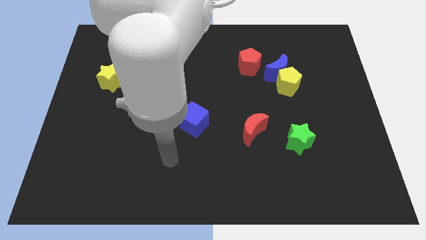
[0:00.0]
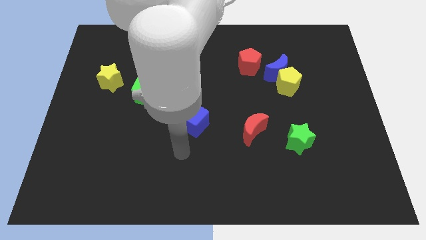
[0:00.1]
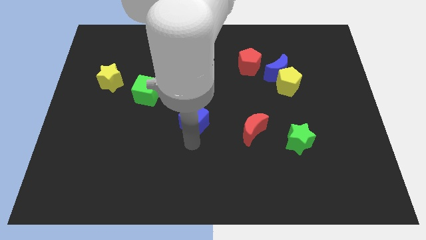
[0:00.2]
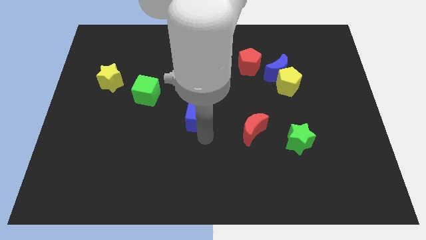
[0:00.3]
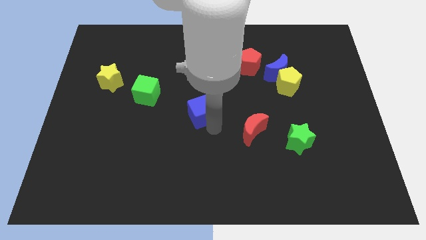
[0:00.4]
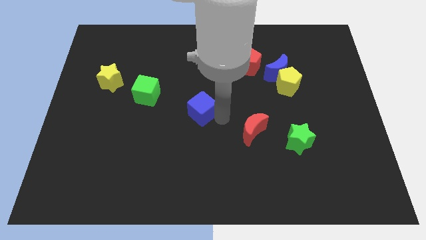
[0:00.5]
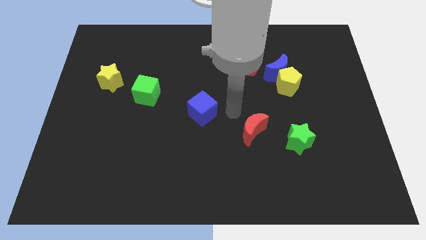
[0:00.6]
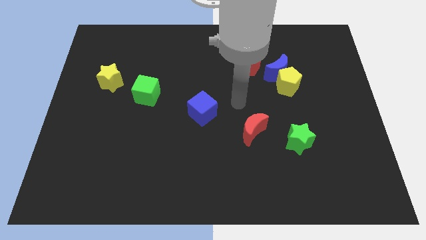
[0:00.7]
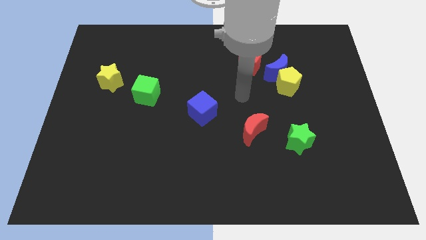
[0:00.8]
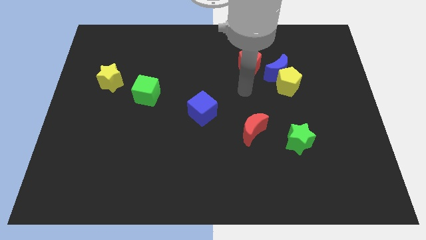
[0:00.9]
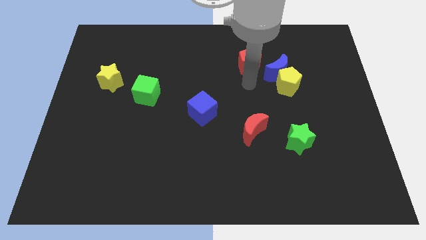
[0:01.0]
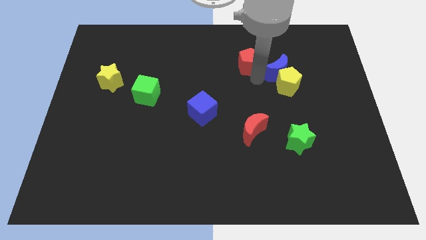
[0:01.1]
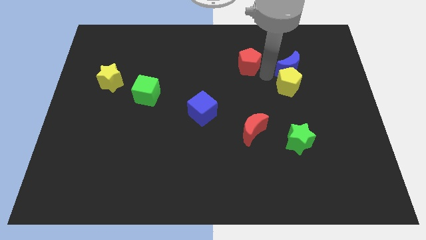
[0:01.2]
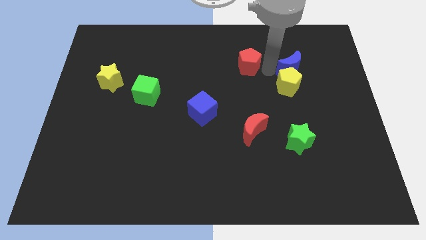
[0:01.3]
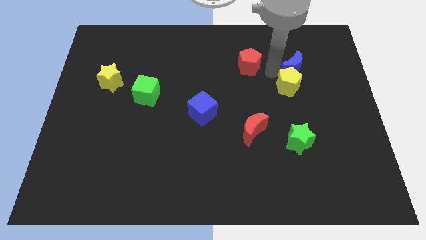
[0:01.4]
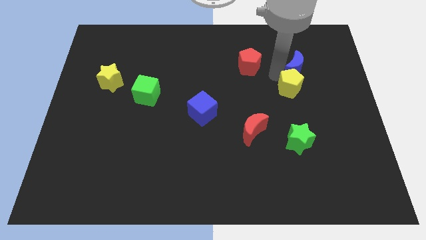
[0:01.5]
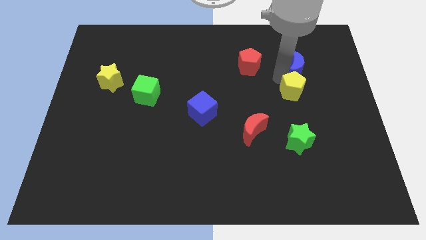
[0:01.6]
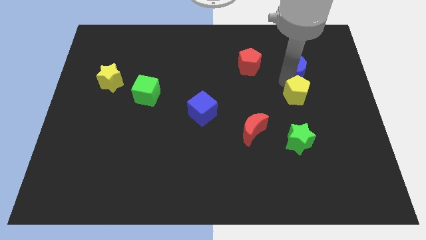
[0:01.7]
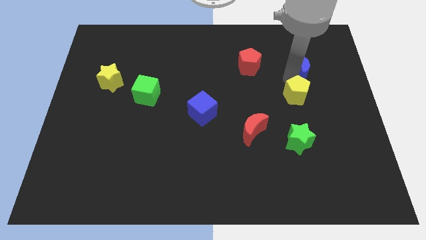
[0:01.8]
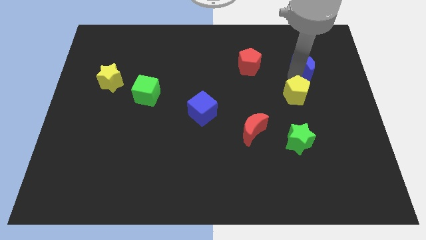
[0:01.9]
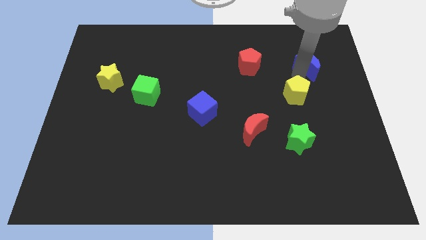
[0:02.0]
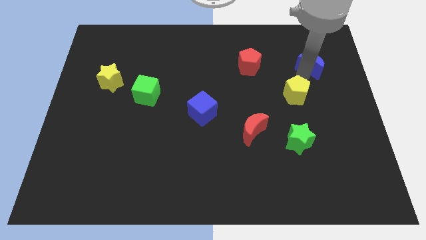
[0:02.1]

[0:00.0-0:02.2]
separate the yellow pentagon from the blue moon

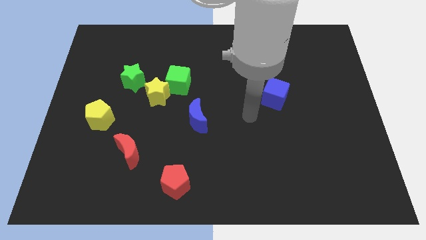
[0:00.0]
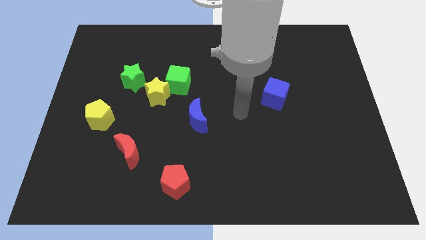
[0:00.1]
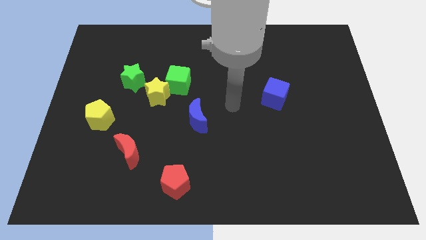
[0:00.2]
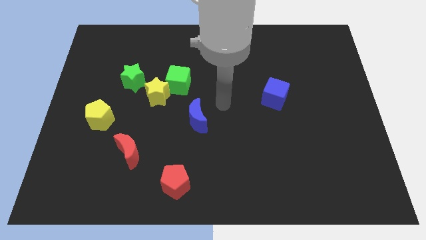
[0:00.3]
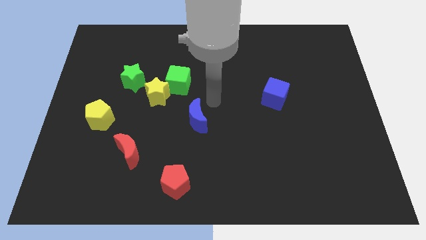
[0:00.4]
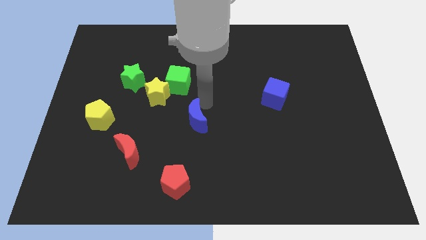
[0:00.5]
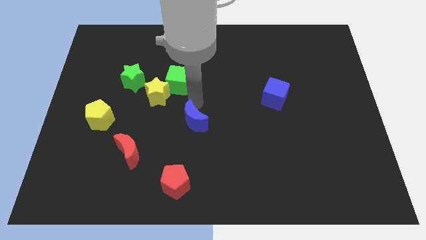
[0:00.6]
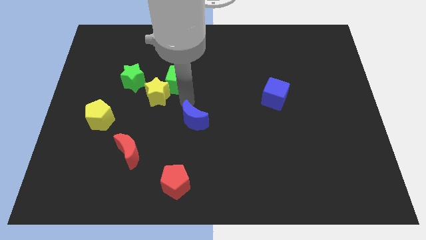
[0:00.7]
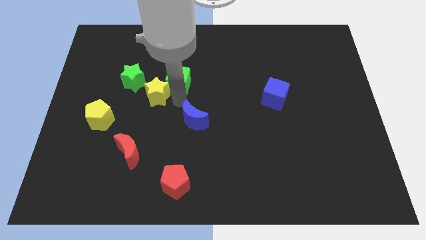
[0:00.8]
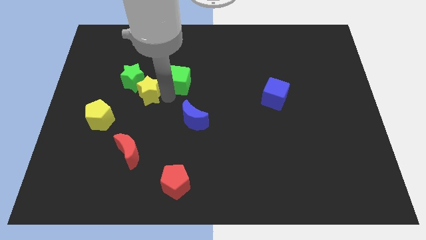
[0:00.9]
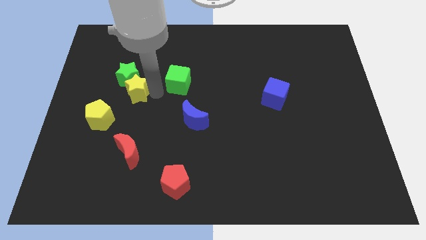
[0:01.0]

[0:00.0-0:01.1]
move the green cube away from the yellow star

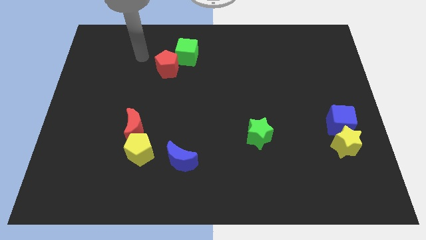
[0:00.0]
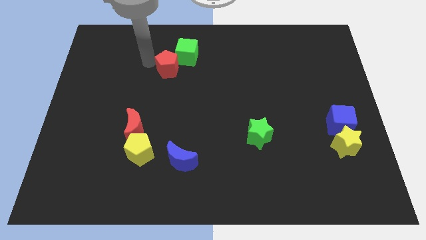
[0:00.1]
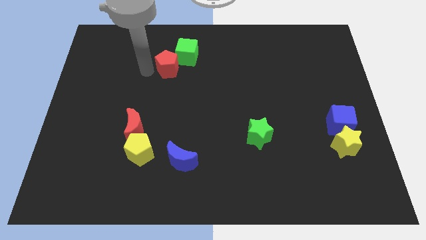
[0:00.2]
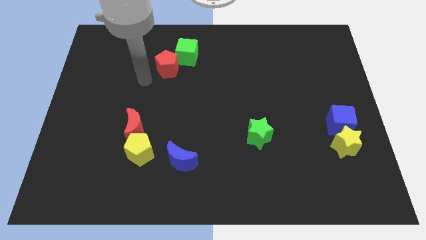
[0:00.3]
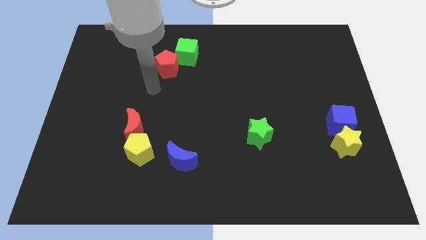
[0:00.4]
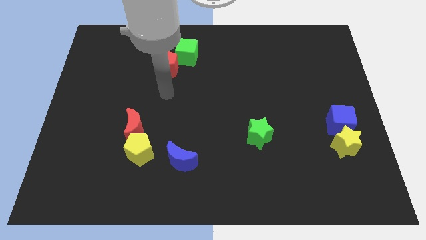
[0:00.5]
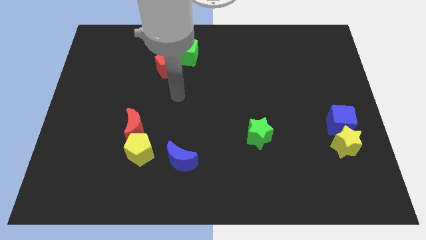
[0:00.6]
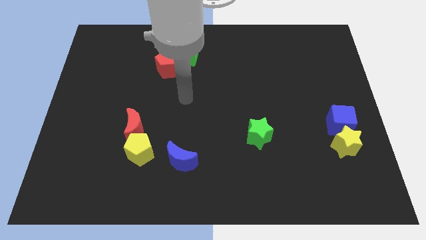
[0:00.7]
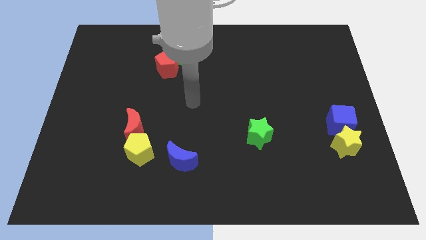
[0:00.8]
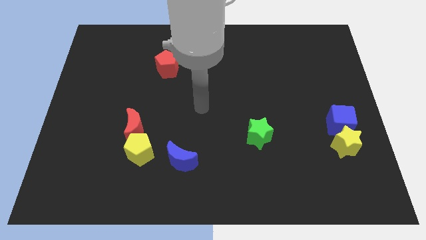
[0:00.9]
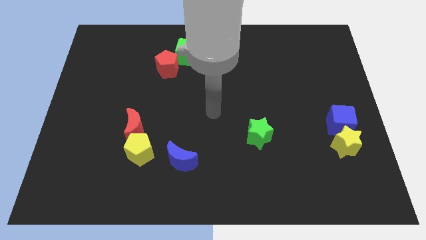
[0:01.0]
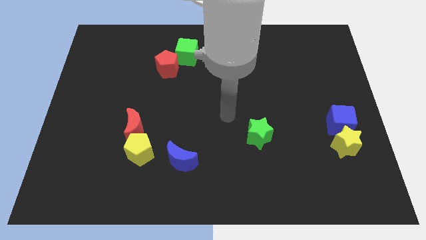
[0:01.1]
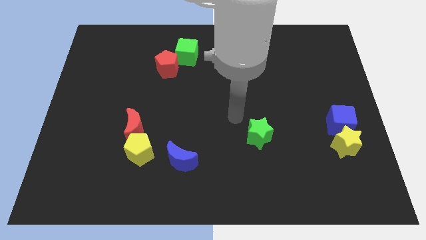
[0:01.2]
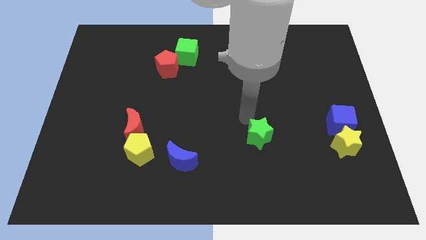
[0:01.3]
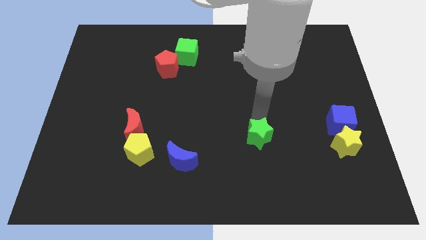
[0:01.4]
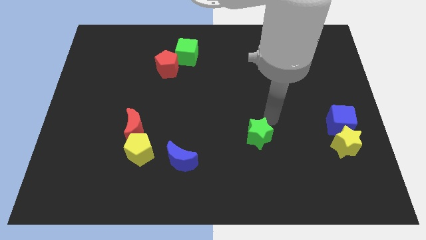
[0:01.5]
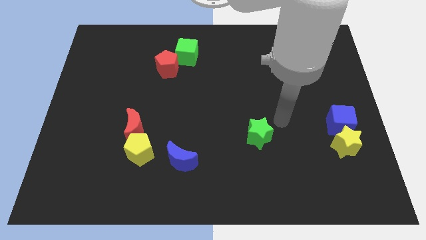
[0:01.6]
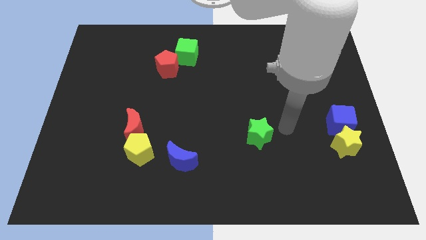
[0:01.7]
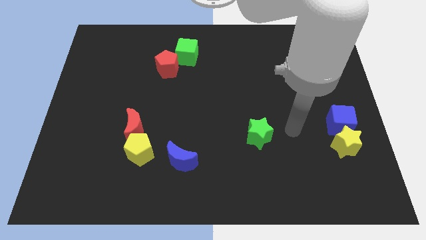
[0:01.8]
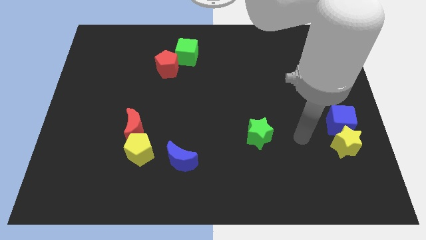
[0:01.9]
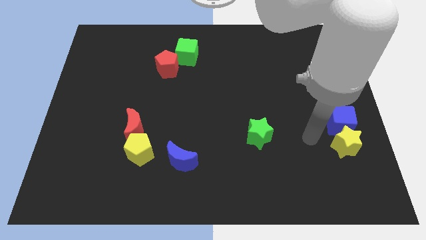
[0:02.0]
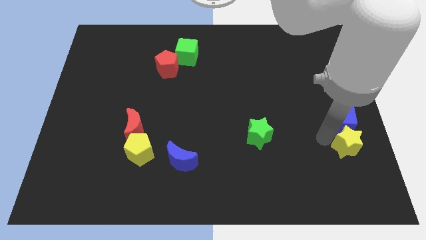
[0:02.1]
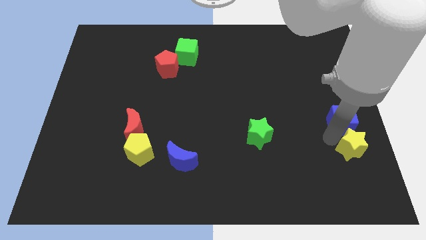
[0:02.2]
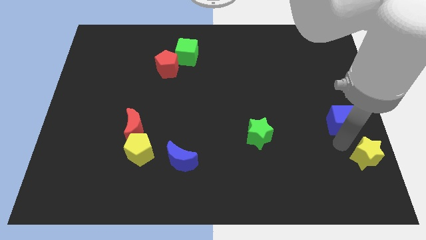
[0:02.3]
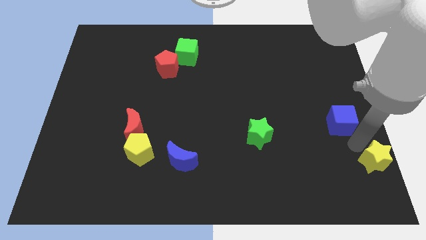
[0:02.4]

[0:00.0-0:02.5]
separate the blue cube from the yellow star

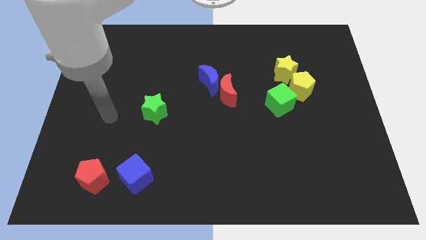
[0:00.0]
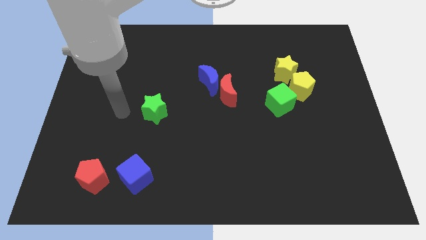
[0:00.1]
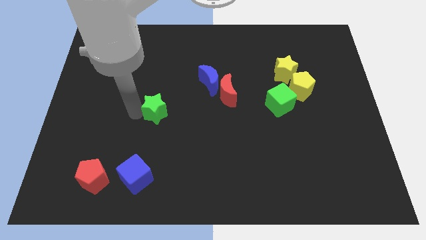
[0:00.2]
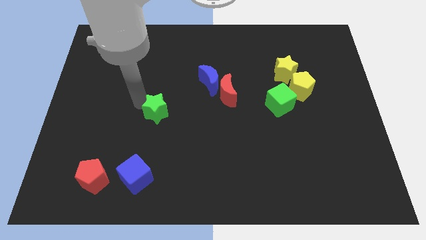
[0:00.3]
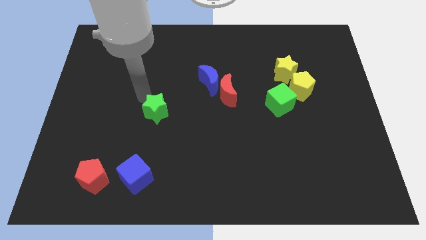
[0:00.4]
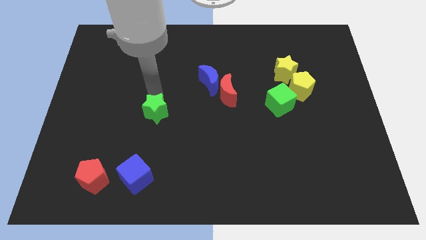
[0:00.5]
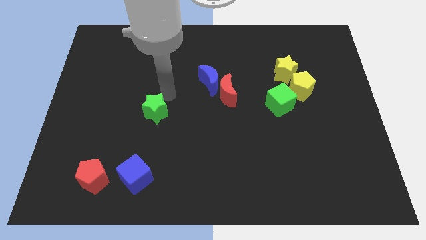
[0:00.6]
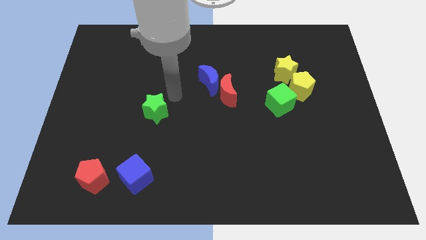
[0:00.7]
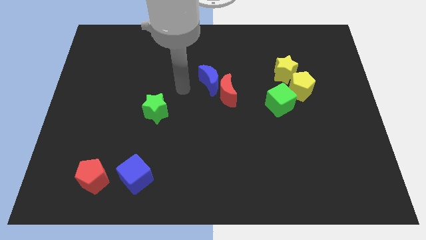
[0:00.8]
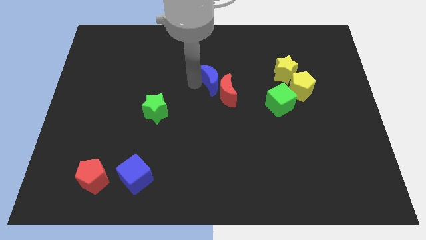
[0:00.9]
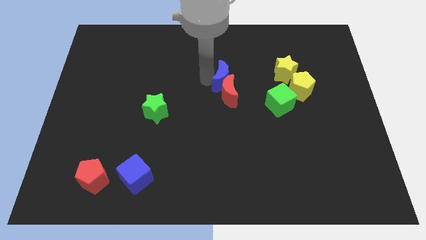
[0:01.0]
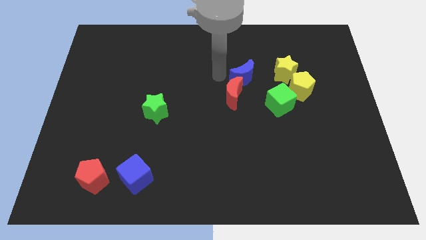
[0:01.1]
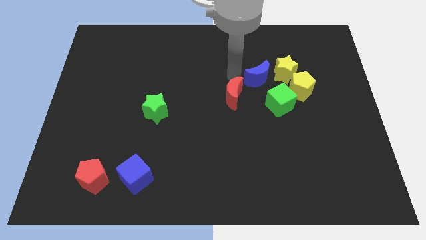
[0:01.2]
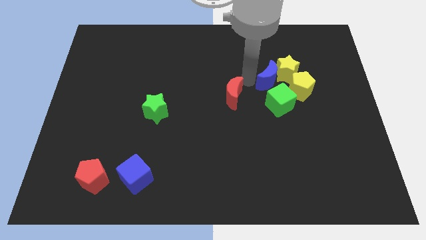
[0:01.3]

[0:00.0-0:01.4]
pull the red moon apart from the blue moon

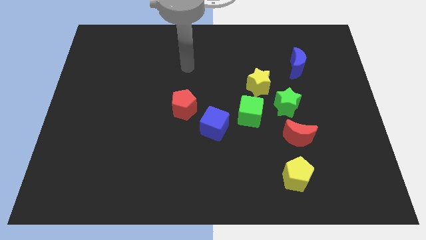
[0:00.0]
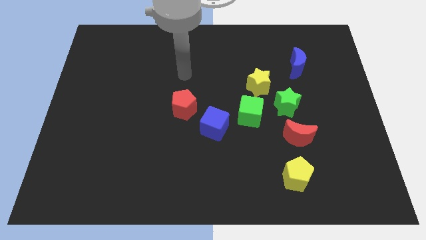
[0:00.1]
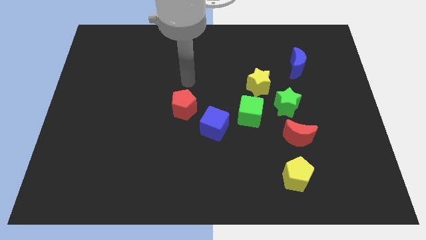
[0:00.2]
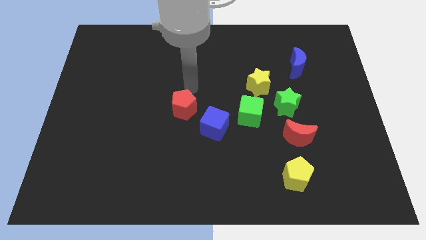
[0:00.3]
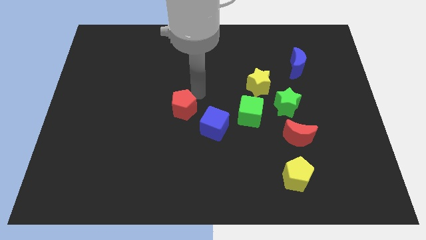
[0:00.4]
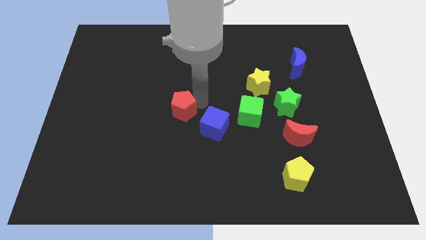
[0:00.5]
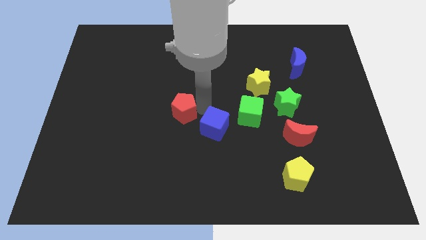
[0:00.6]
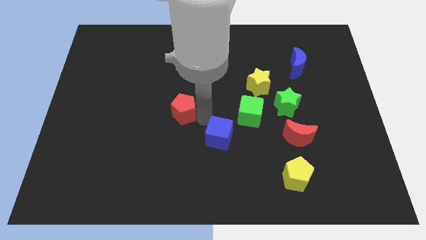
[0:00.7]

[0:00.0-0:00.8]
separate the red pentagon from the blue cube

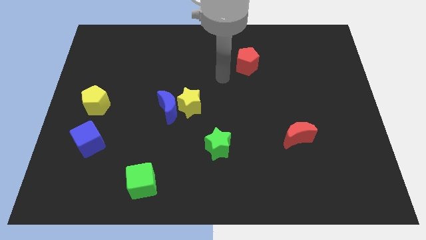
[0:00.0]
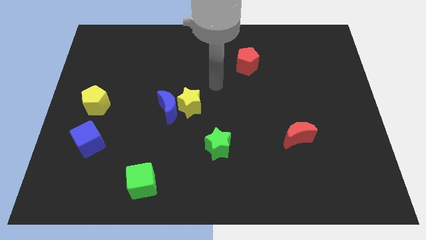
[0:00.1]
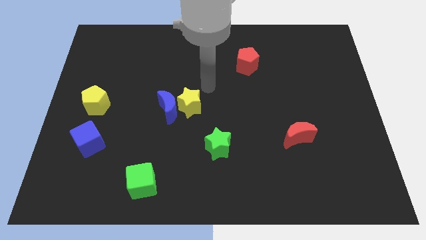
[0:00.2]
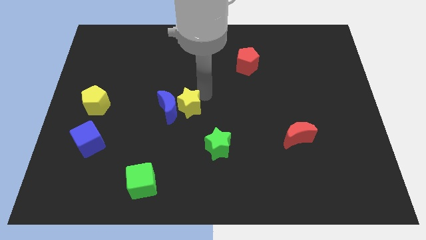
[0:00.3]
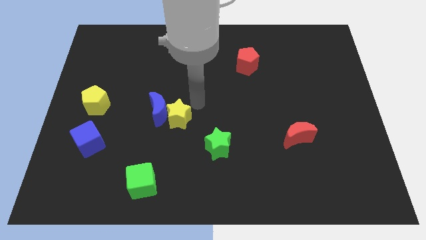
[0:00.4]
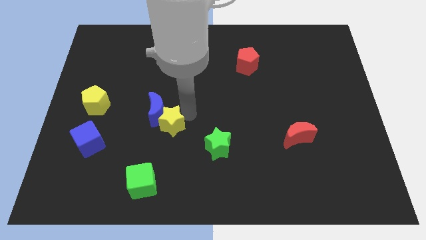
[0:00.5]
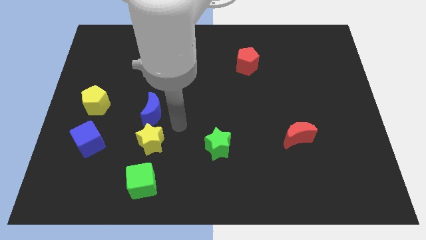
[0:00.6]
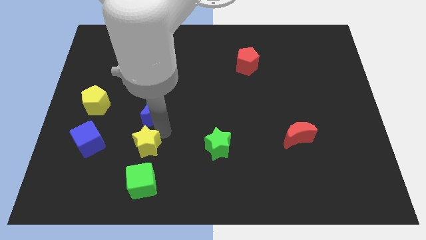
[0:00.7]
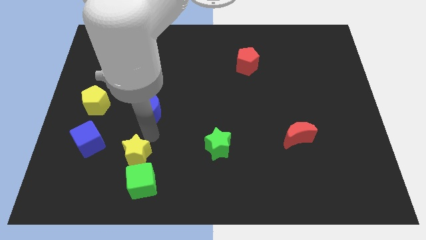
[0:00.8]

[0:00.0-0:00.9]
pull the blue moon apart from the yellow star

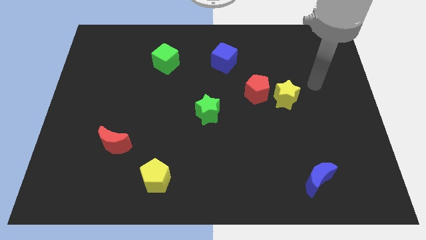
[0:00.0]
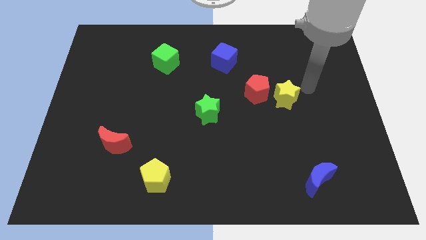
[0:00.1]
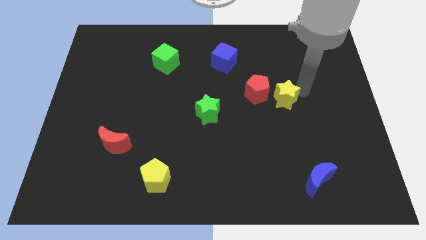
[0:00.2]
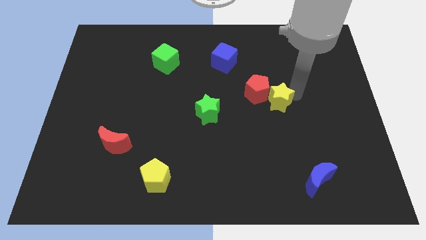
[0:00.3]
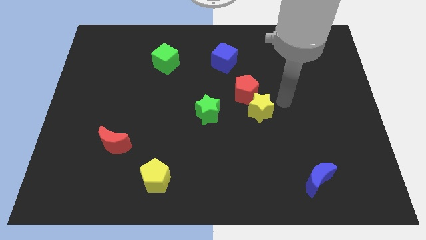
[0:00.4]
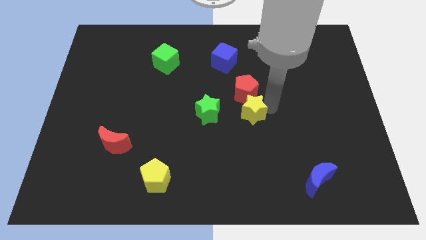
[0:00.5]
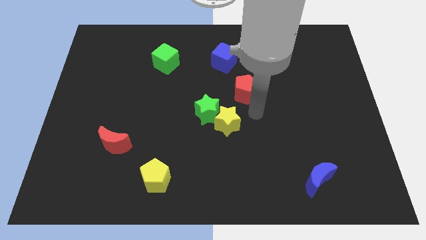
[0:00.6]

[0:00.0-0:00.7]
move the red pentagon away from the yellow star
